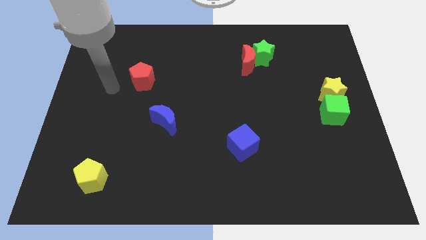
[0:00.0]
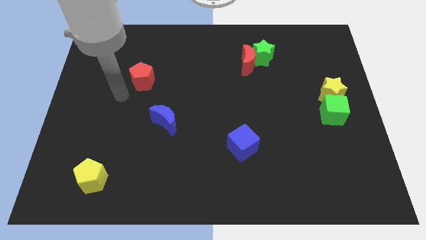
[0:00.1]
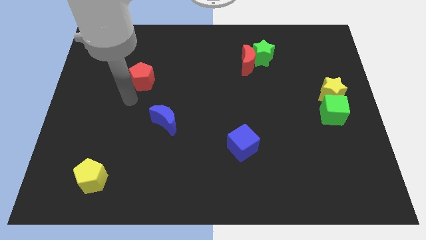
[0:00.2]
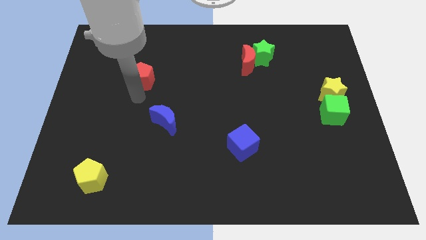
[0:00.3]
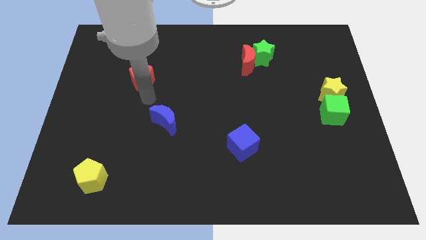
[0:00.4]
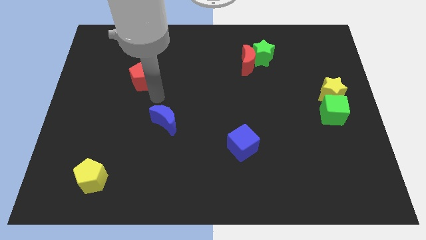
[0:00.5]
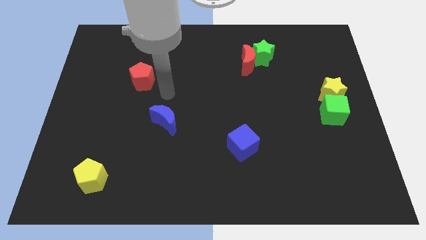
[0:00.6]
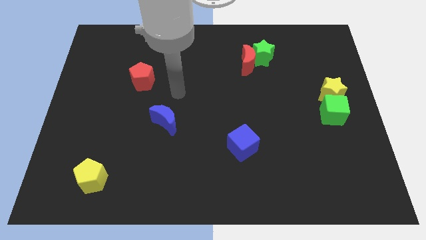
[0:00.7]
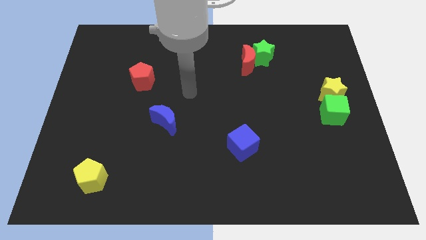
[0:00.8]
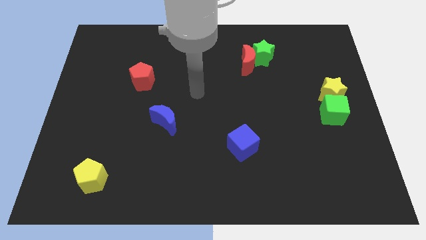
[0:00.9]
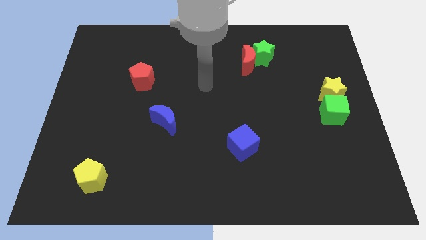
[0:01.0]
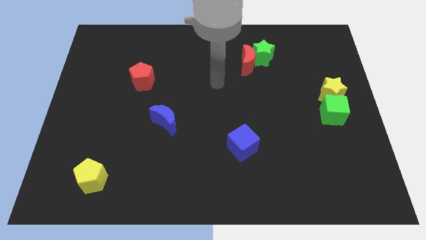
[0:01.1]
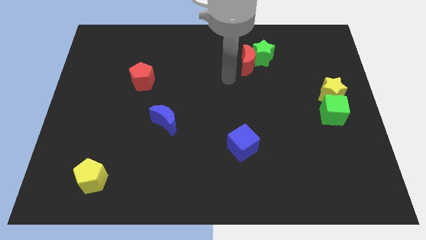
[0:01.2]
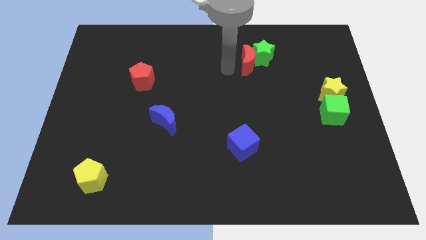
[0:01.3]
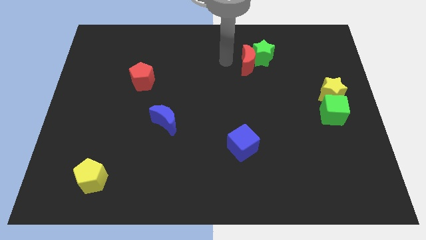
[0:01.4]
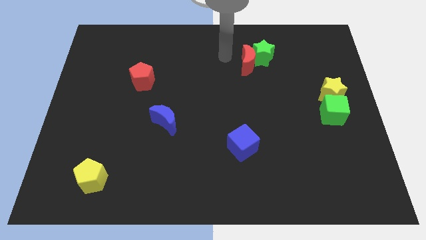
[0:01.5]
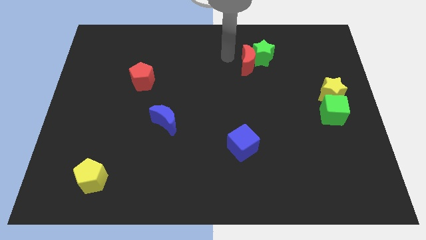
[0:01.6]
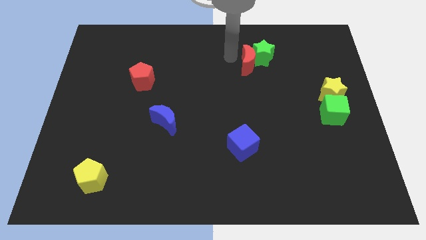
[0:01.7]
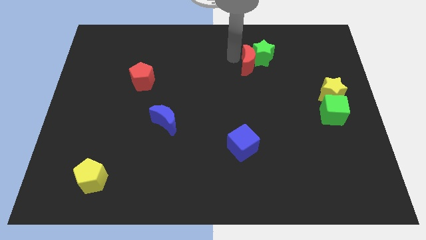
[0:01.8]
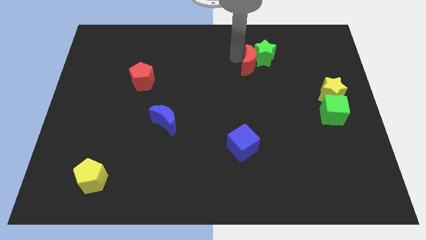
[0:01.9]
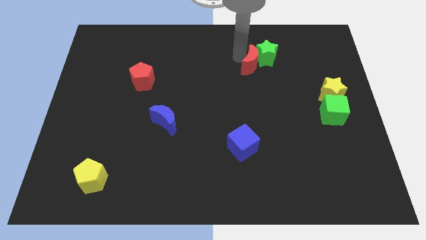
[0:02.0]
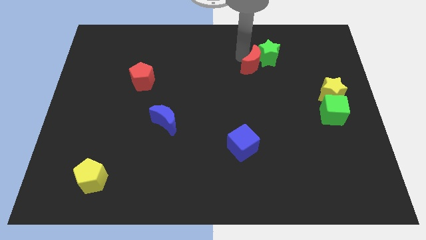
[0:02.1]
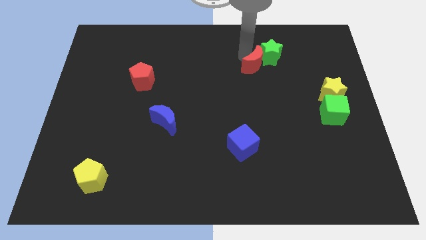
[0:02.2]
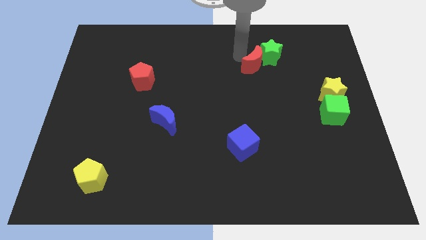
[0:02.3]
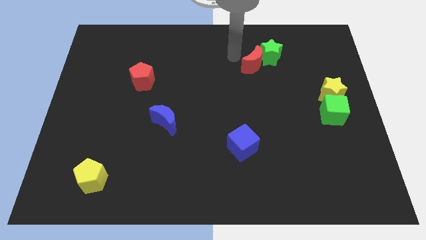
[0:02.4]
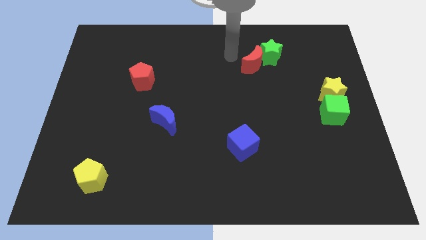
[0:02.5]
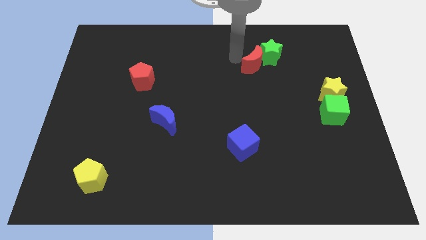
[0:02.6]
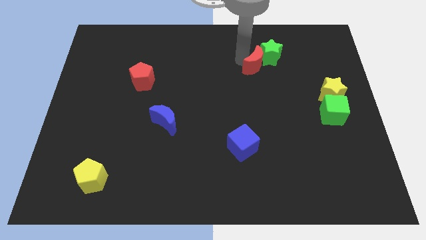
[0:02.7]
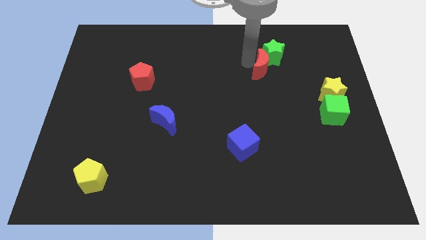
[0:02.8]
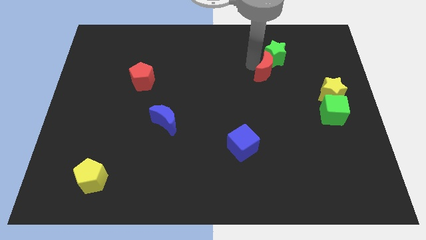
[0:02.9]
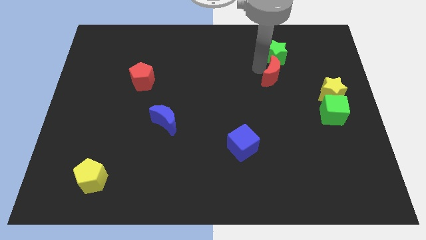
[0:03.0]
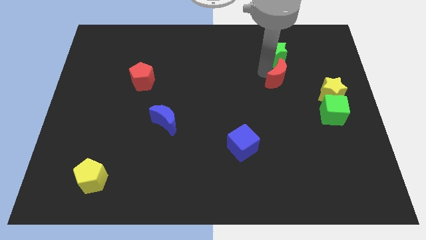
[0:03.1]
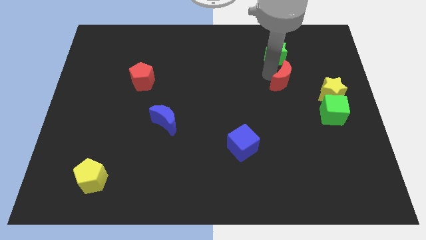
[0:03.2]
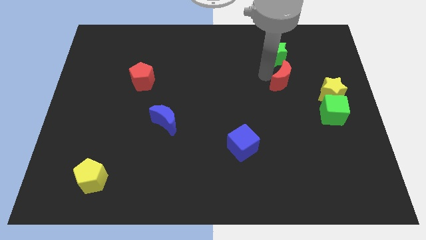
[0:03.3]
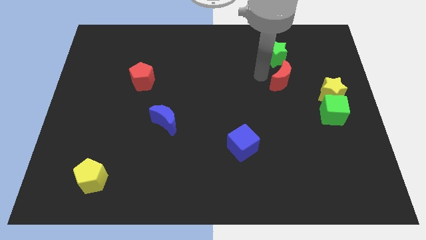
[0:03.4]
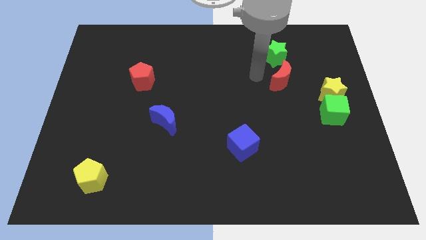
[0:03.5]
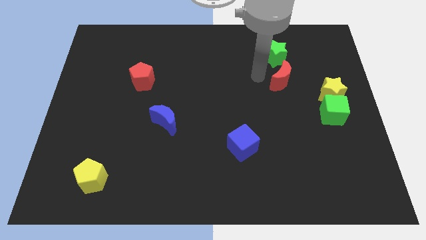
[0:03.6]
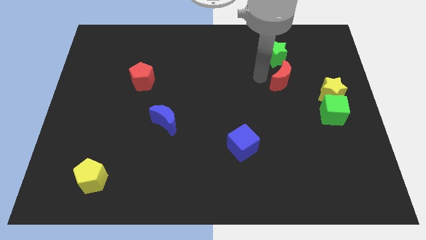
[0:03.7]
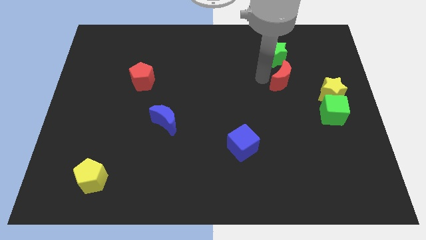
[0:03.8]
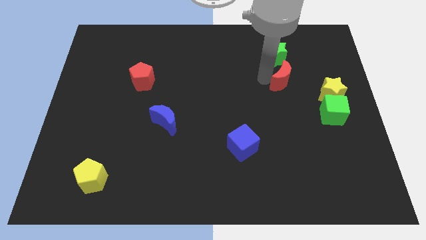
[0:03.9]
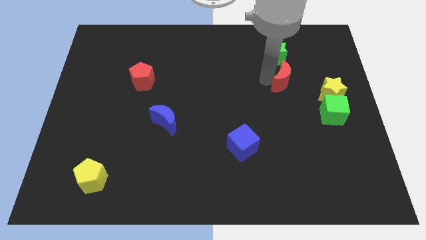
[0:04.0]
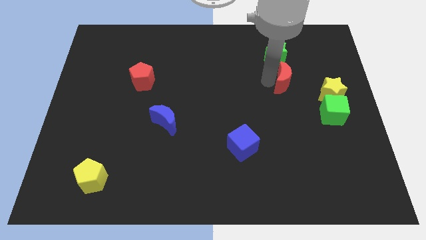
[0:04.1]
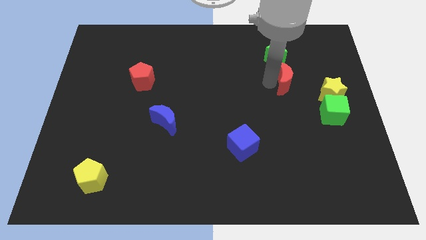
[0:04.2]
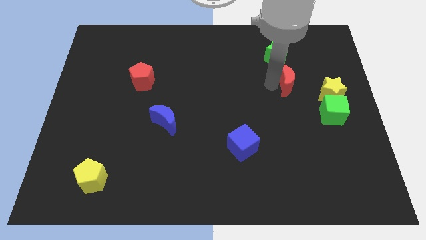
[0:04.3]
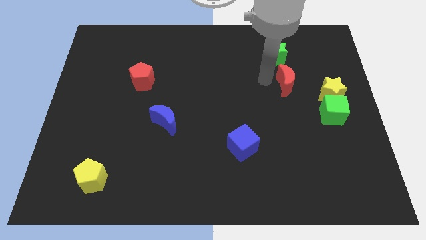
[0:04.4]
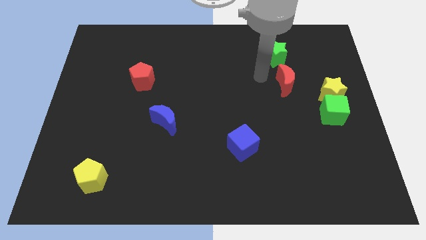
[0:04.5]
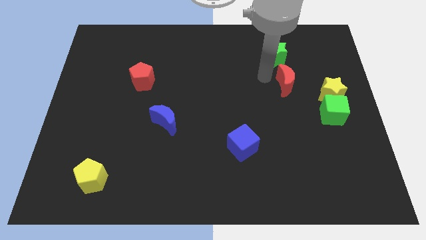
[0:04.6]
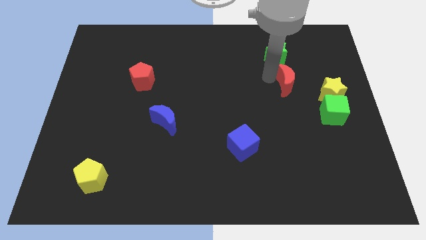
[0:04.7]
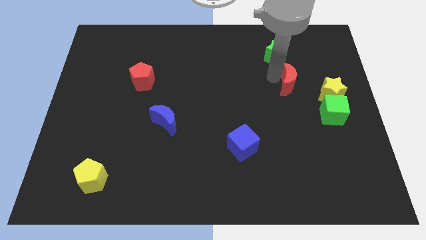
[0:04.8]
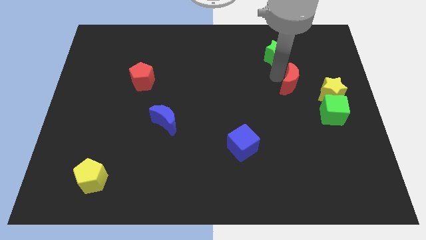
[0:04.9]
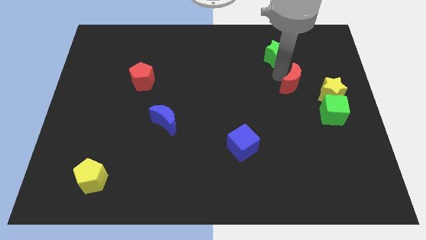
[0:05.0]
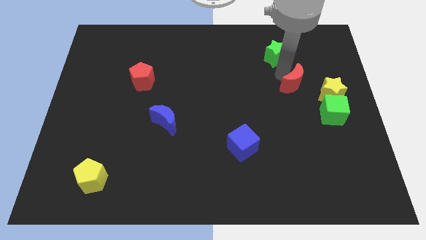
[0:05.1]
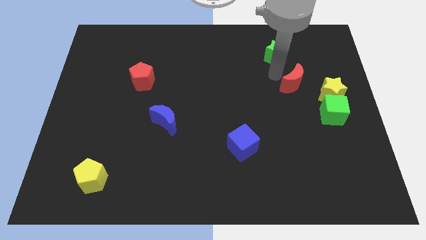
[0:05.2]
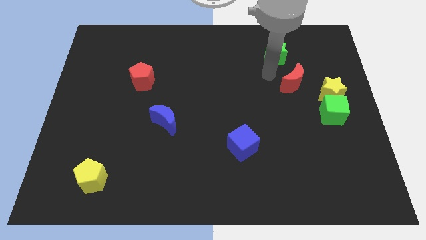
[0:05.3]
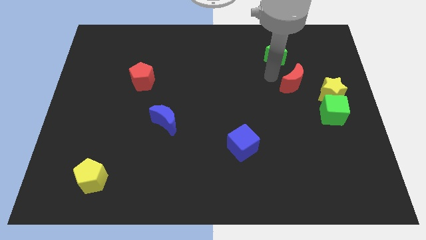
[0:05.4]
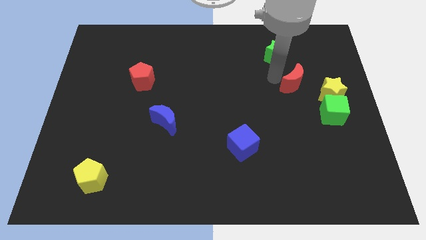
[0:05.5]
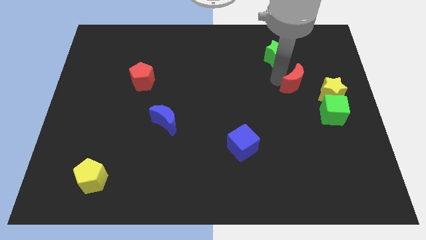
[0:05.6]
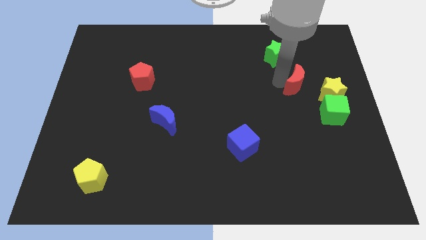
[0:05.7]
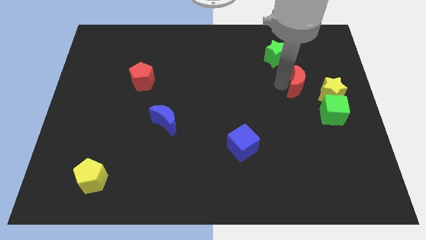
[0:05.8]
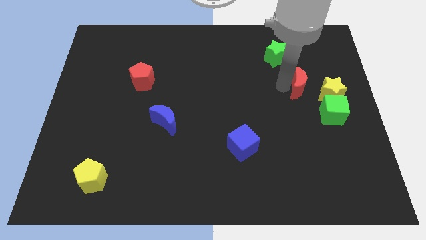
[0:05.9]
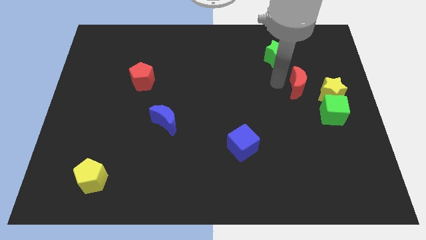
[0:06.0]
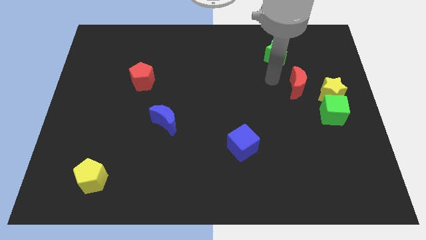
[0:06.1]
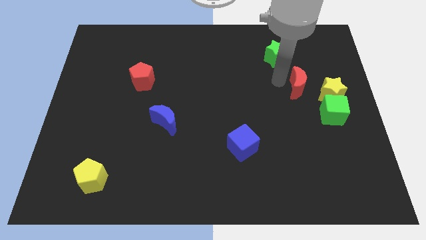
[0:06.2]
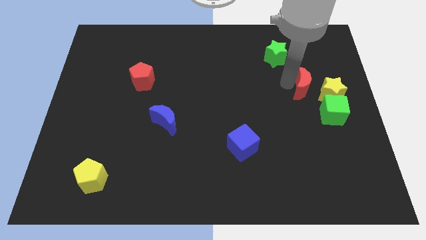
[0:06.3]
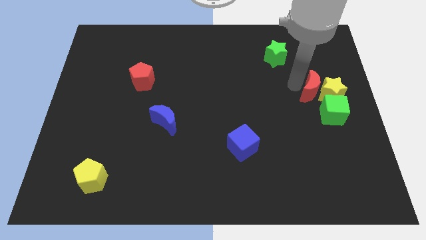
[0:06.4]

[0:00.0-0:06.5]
push the red moon to the yellow star
